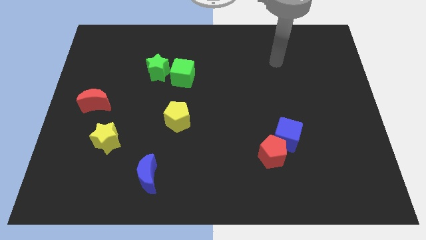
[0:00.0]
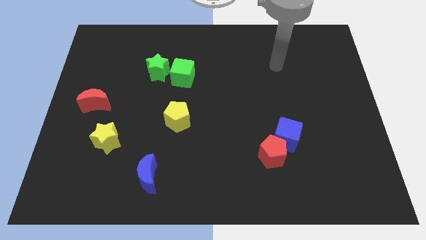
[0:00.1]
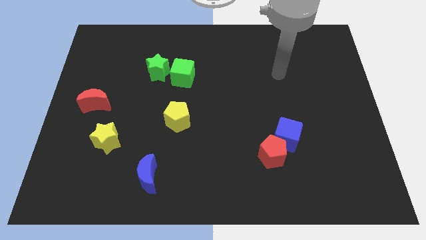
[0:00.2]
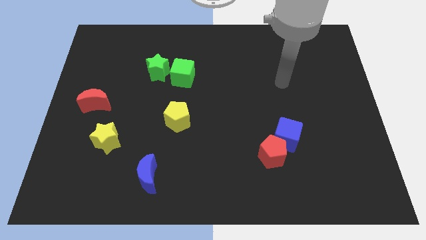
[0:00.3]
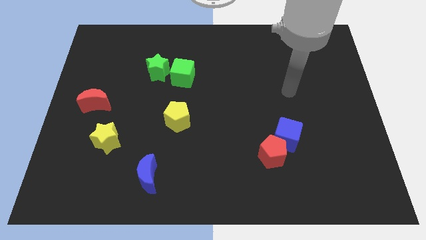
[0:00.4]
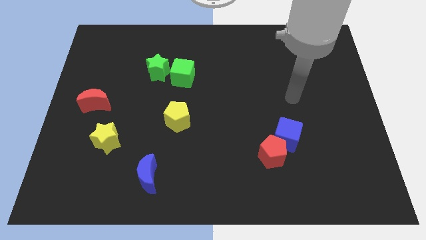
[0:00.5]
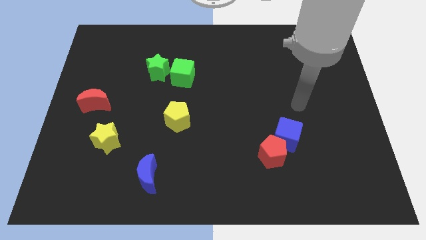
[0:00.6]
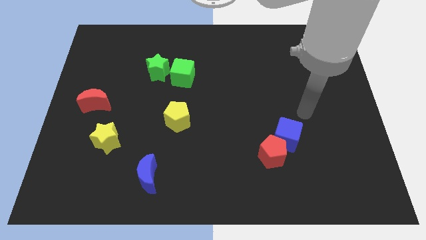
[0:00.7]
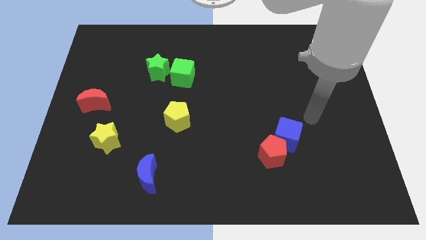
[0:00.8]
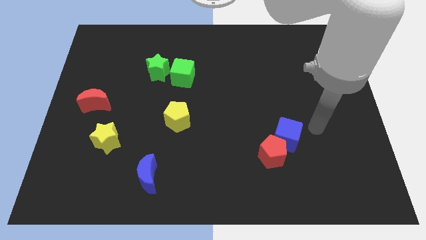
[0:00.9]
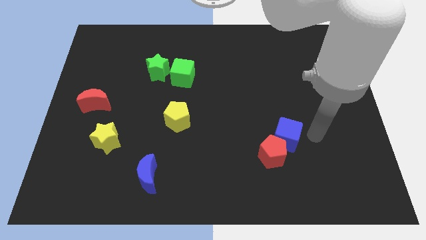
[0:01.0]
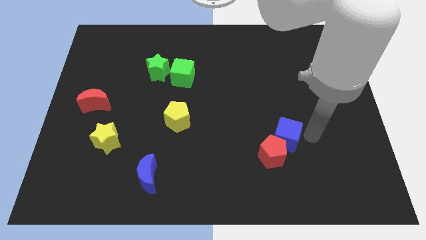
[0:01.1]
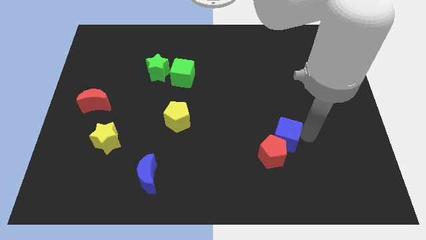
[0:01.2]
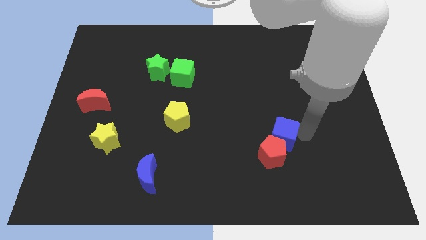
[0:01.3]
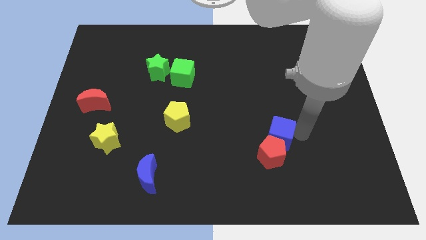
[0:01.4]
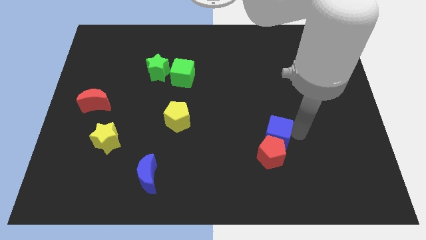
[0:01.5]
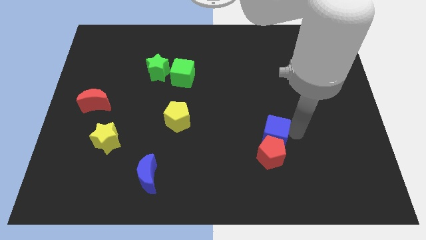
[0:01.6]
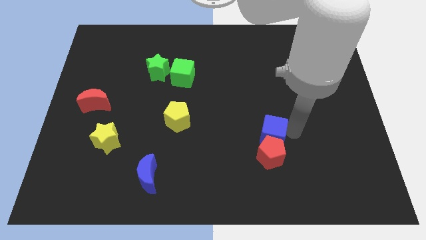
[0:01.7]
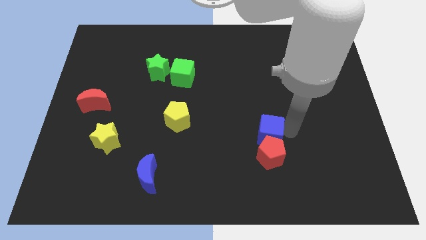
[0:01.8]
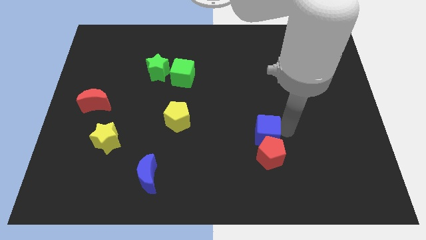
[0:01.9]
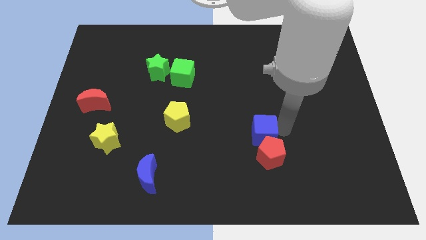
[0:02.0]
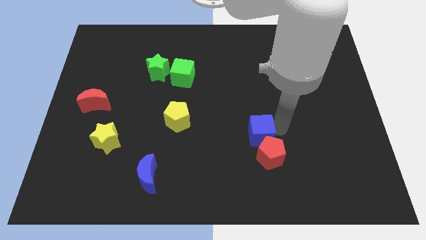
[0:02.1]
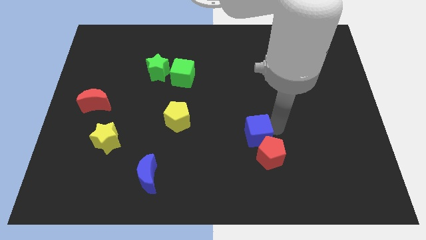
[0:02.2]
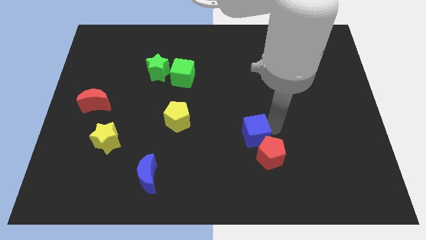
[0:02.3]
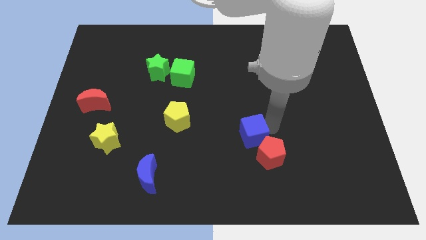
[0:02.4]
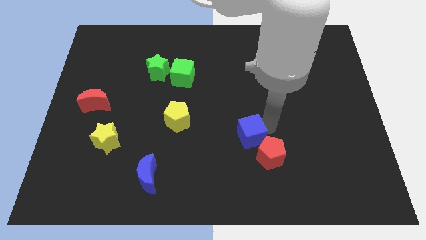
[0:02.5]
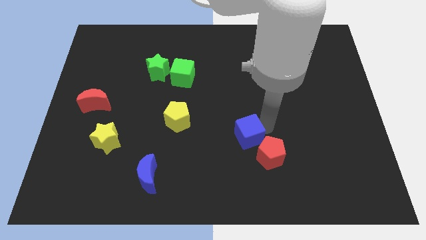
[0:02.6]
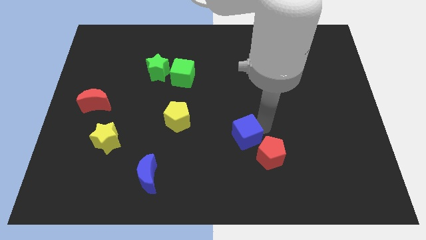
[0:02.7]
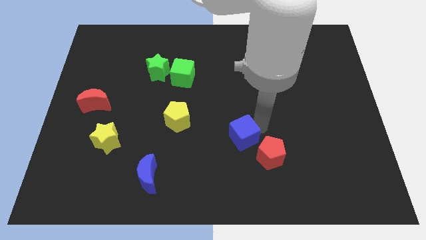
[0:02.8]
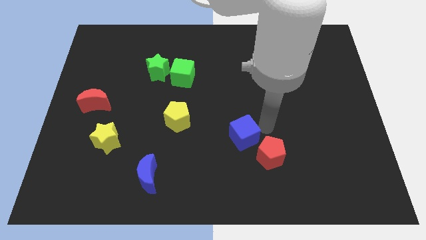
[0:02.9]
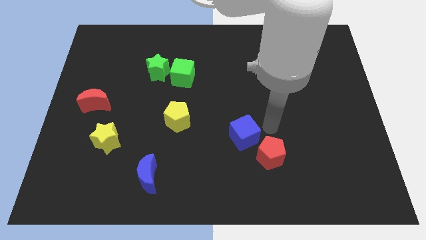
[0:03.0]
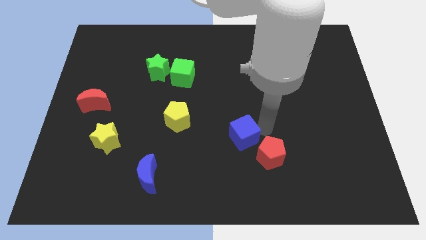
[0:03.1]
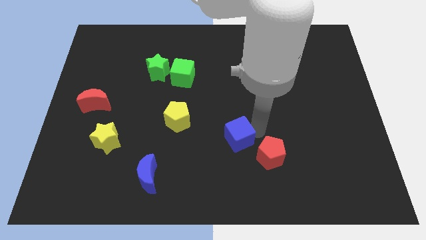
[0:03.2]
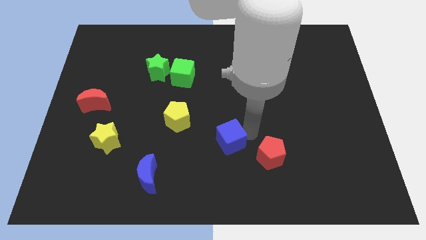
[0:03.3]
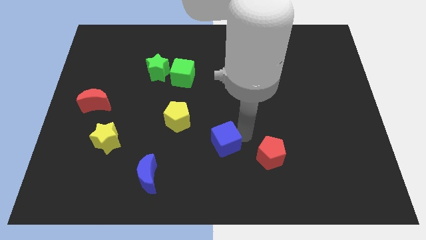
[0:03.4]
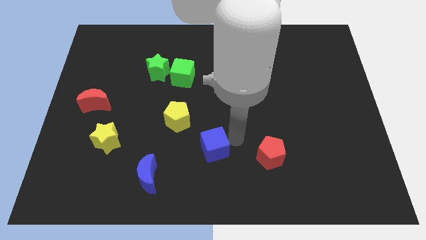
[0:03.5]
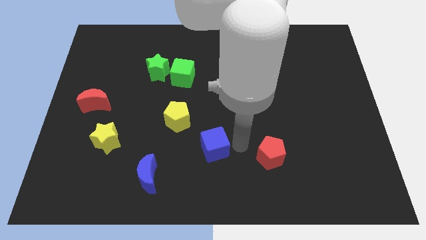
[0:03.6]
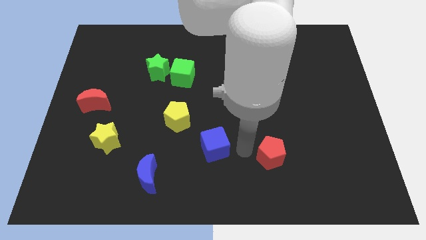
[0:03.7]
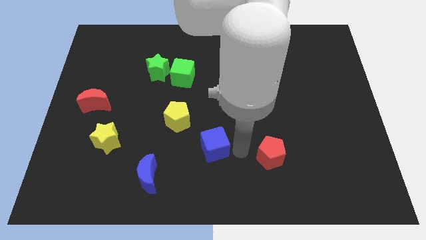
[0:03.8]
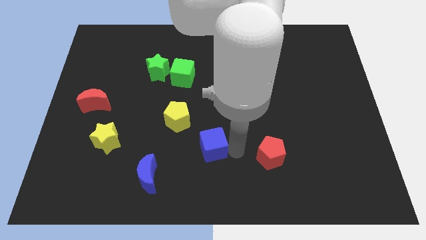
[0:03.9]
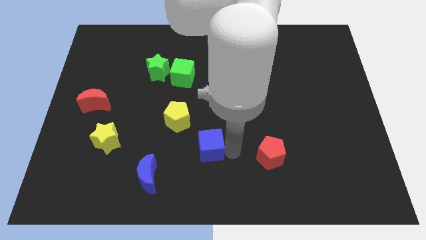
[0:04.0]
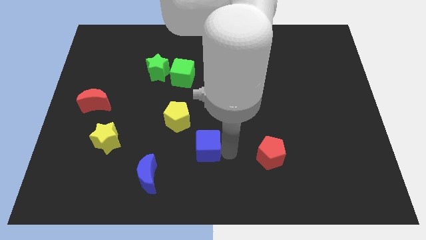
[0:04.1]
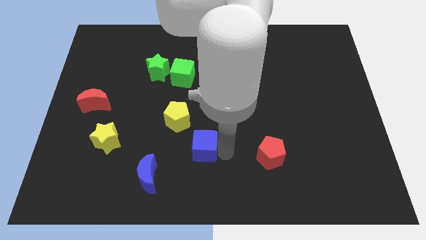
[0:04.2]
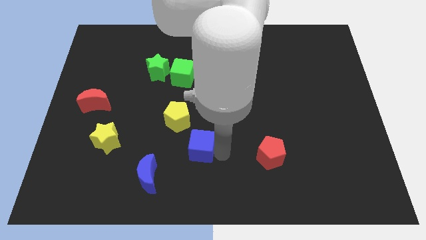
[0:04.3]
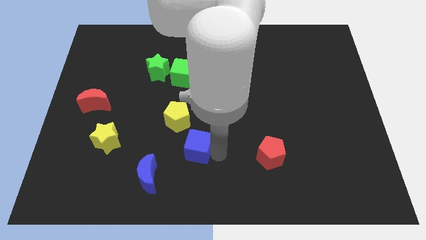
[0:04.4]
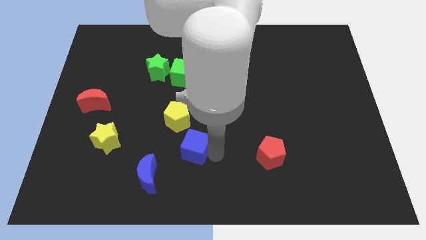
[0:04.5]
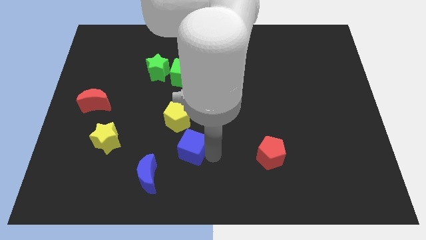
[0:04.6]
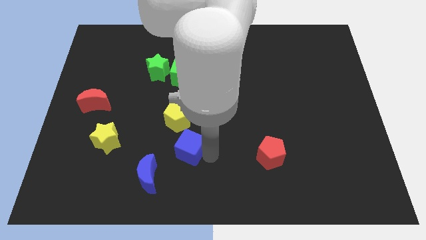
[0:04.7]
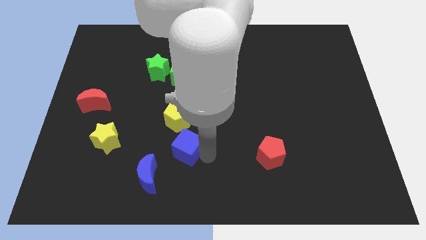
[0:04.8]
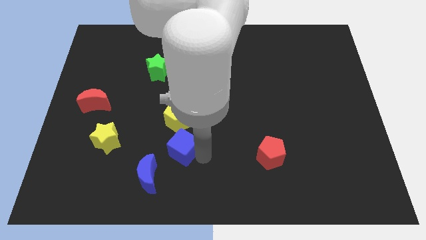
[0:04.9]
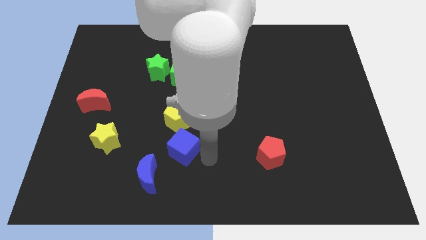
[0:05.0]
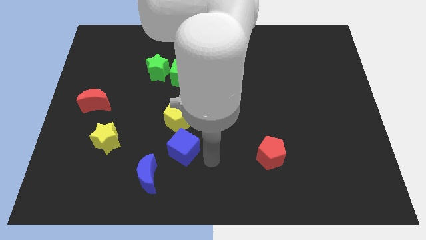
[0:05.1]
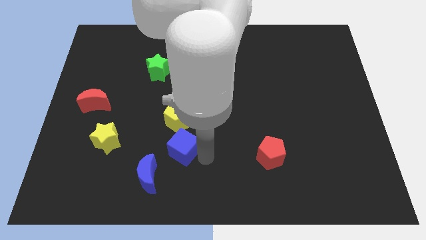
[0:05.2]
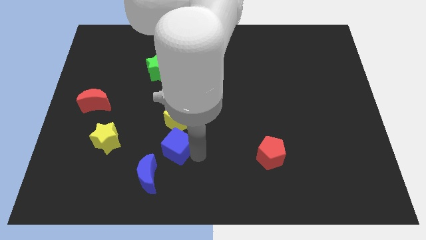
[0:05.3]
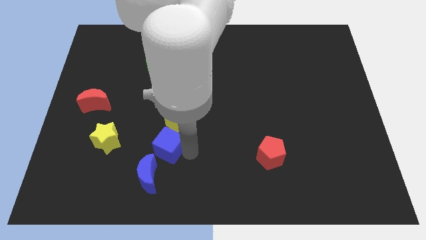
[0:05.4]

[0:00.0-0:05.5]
slide the blue cube to the bottom left side of the yellow pentagon

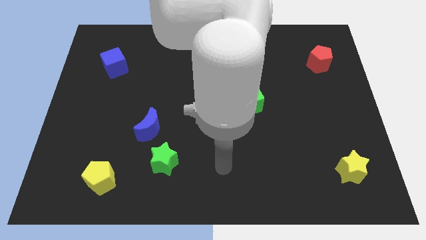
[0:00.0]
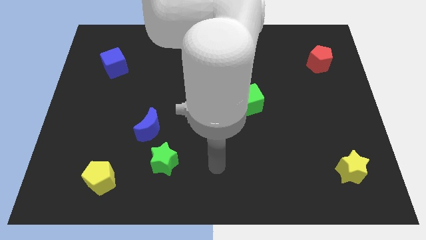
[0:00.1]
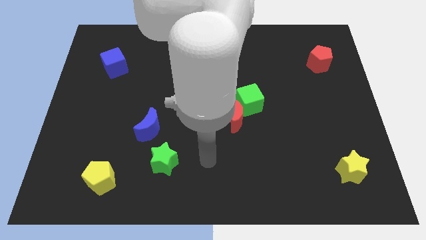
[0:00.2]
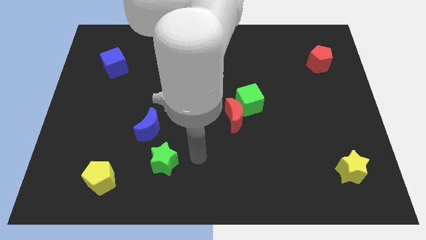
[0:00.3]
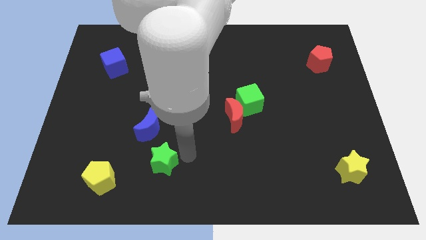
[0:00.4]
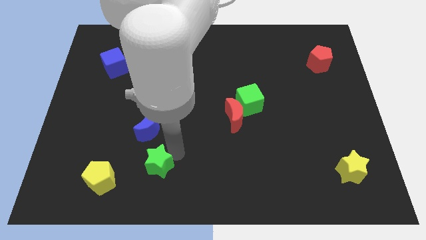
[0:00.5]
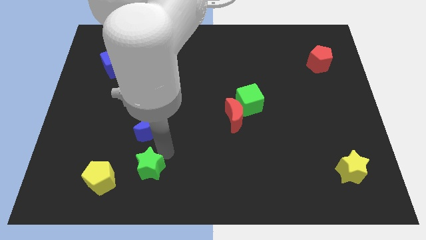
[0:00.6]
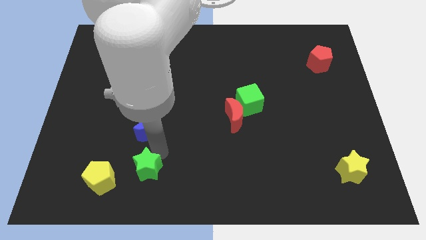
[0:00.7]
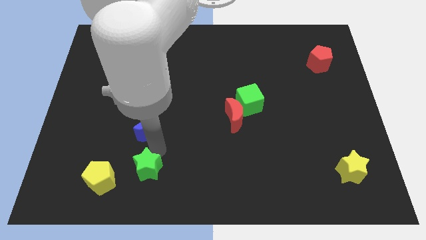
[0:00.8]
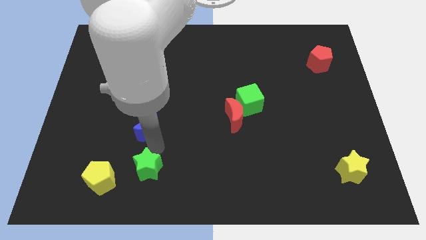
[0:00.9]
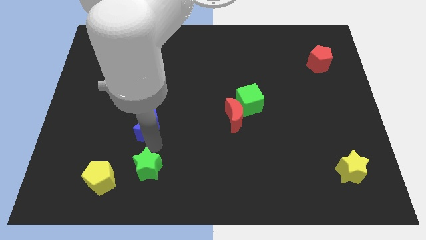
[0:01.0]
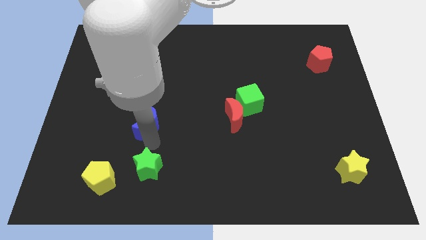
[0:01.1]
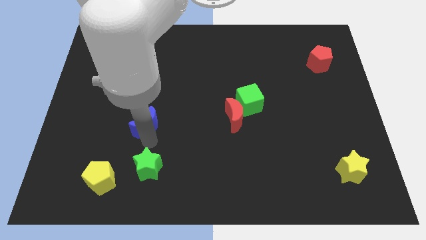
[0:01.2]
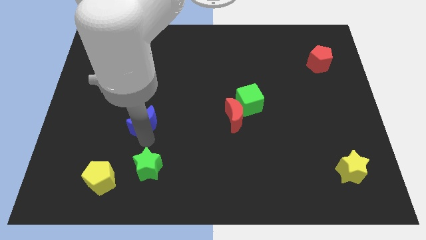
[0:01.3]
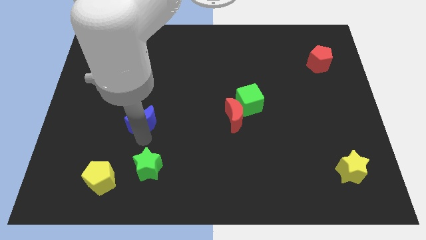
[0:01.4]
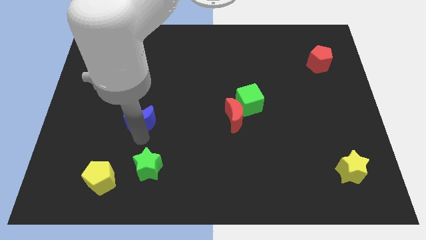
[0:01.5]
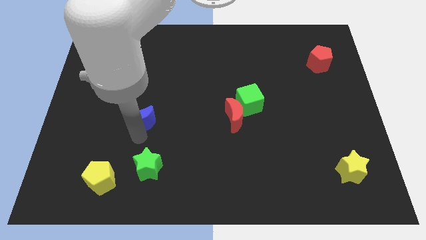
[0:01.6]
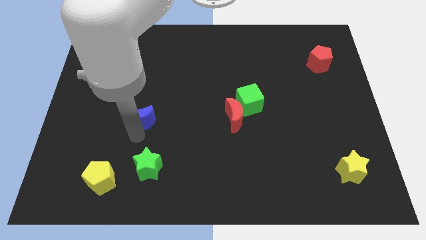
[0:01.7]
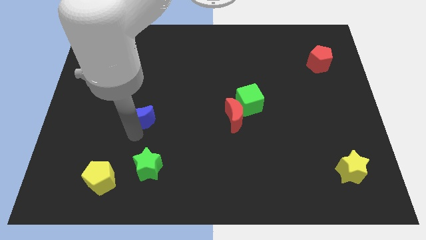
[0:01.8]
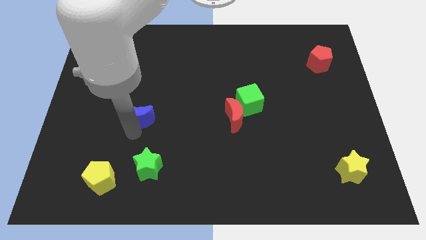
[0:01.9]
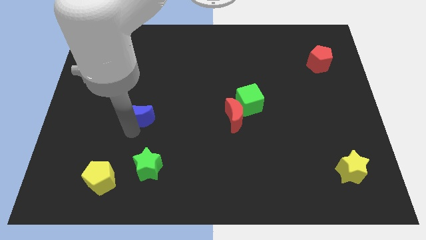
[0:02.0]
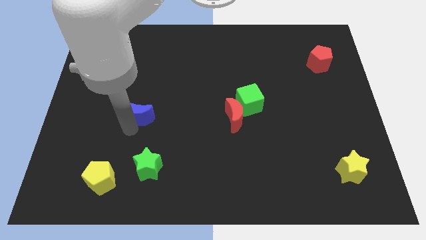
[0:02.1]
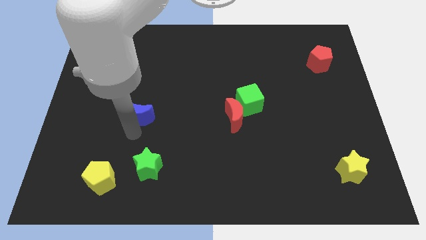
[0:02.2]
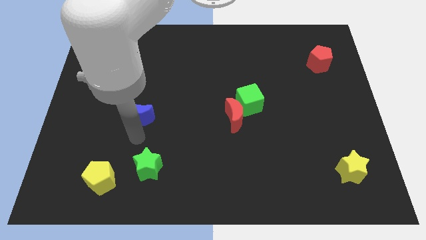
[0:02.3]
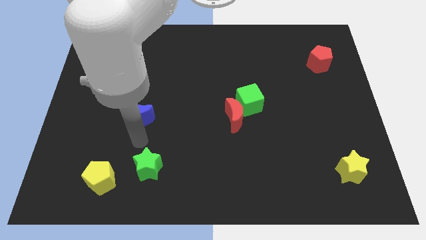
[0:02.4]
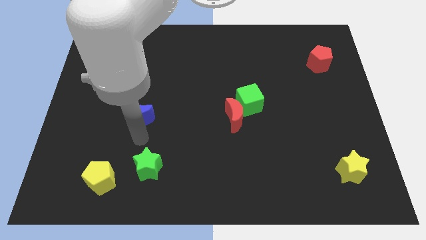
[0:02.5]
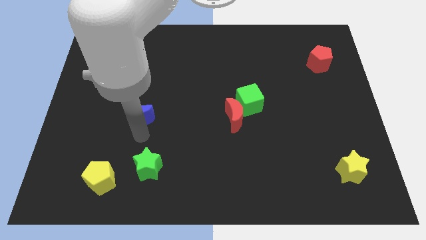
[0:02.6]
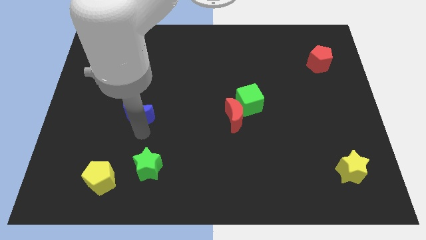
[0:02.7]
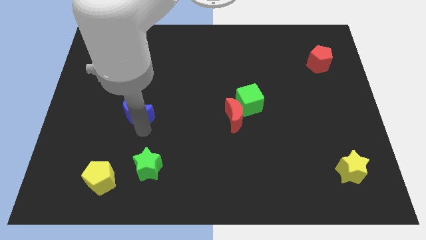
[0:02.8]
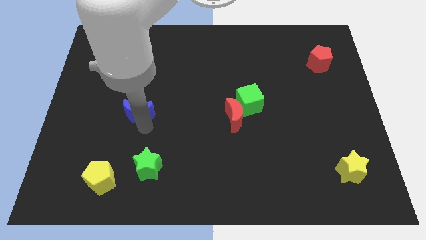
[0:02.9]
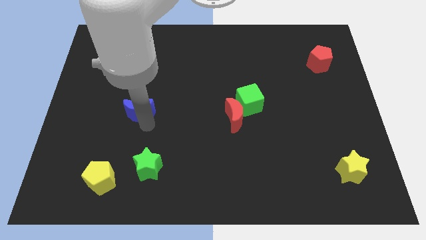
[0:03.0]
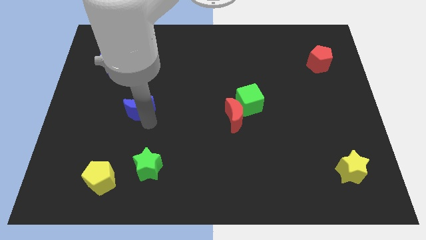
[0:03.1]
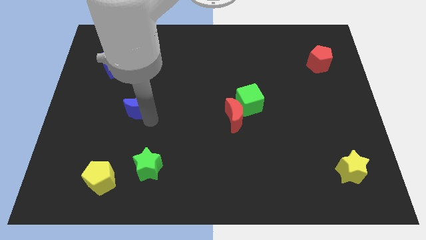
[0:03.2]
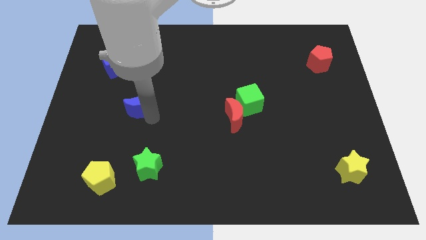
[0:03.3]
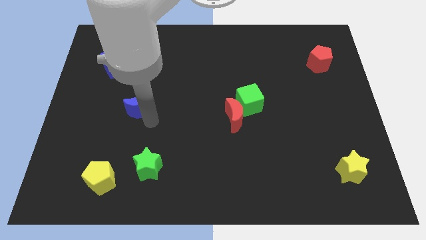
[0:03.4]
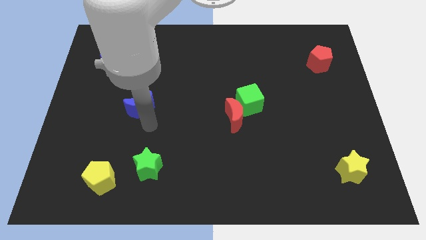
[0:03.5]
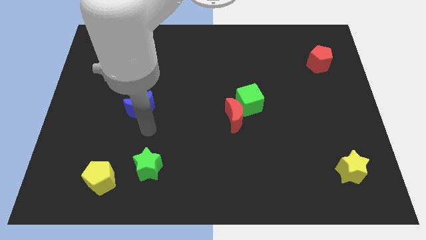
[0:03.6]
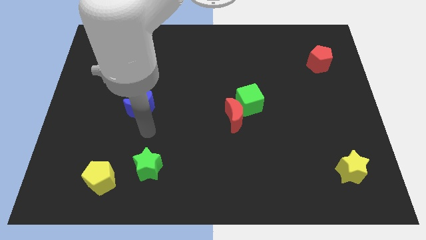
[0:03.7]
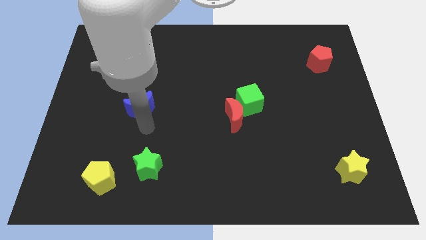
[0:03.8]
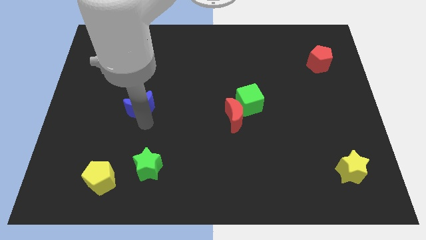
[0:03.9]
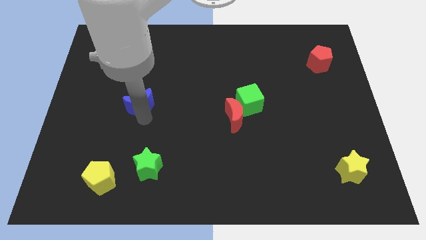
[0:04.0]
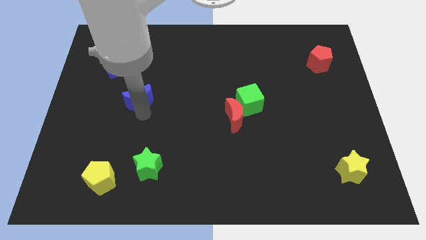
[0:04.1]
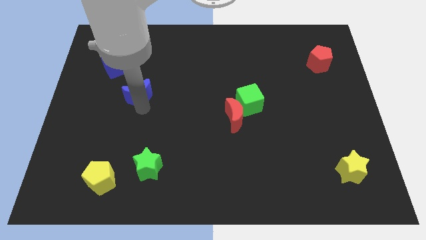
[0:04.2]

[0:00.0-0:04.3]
put the blue moon to the bottom right of the blue cube
